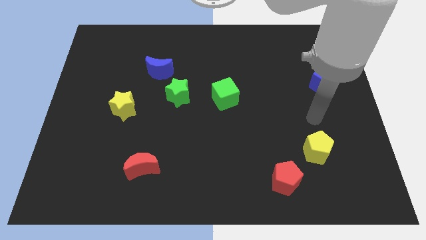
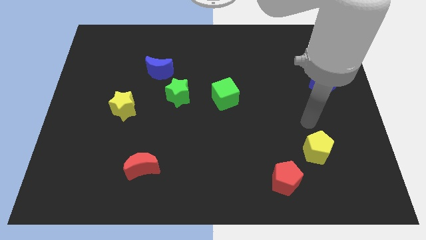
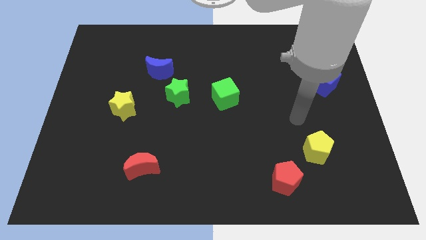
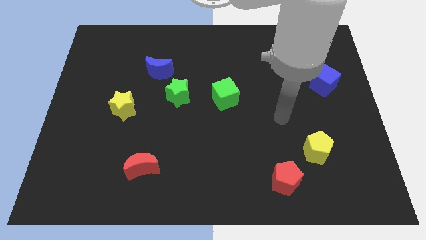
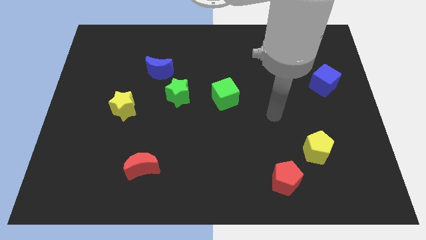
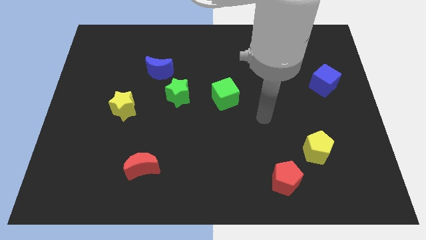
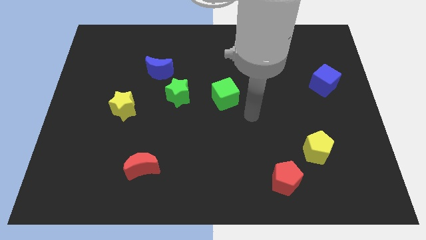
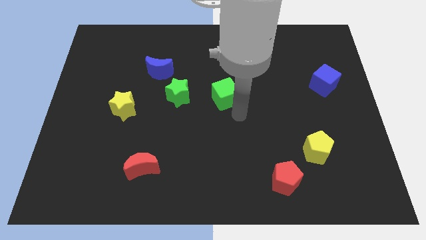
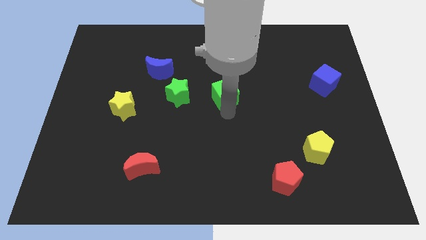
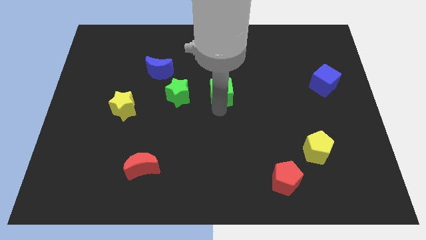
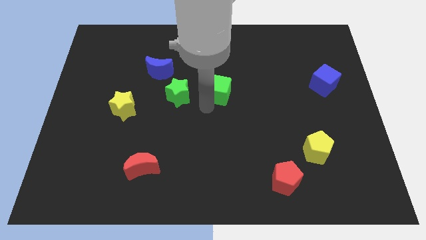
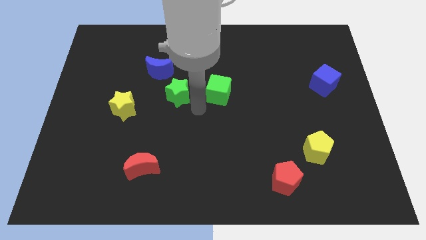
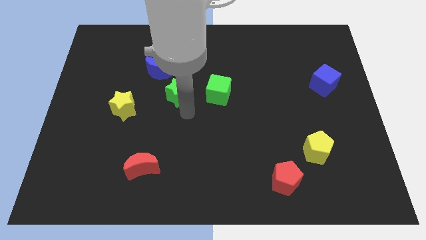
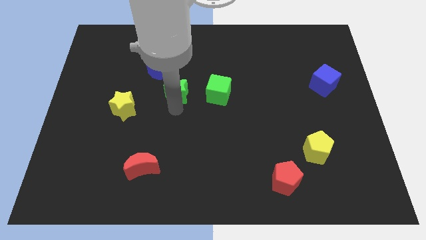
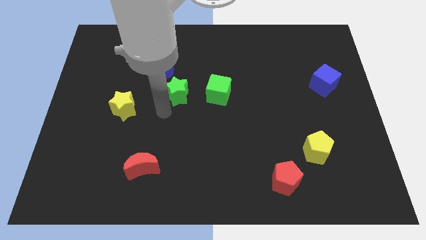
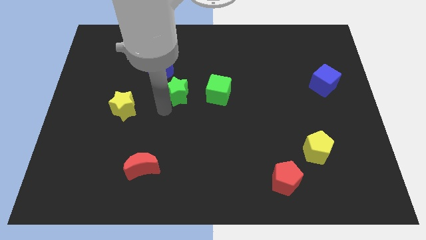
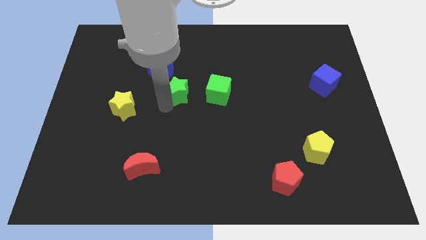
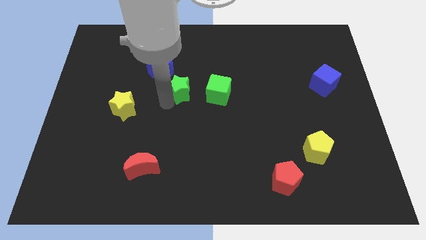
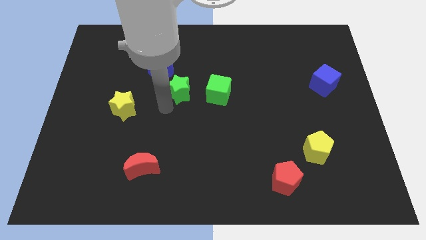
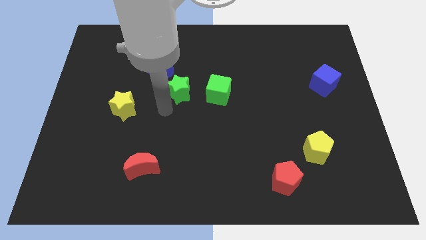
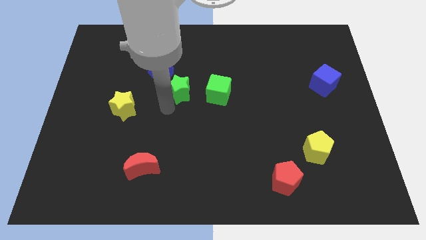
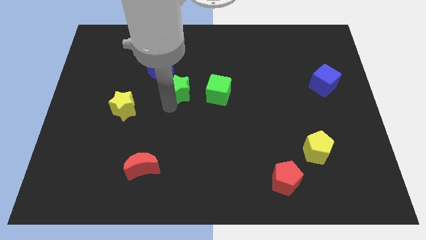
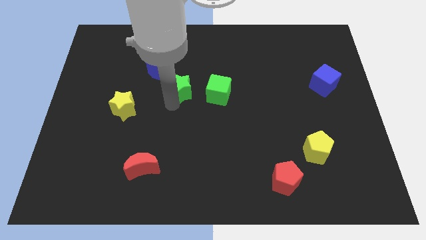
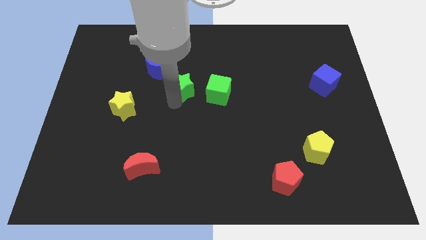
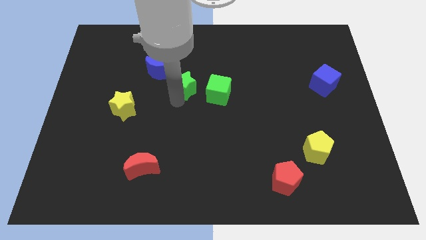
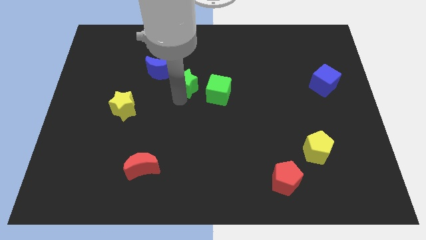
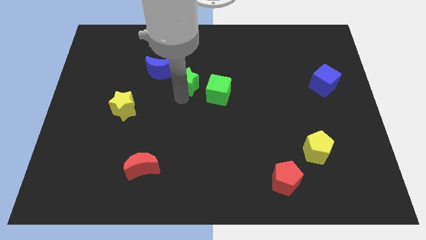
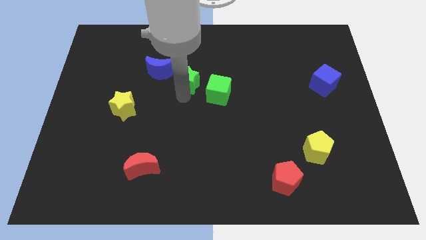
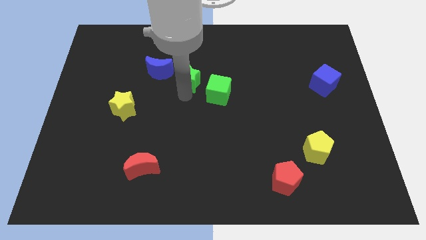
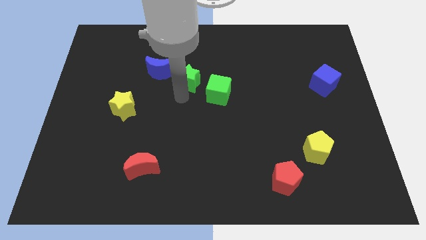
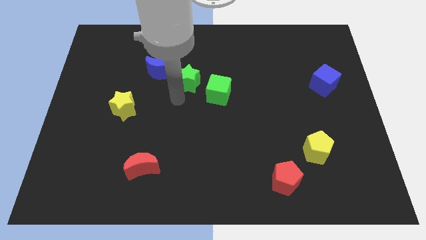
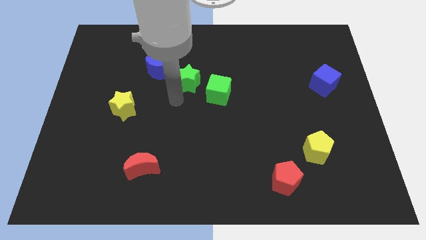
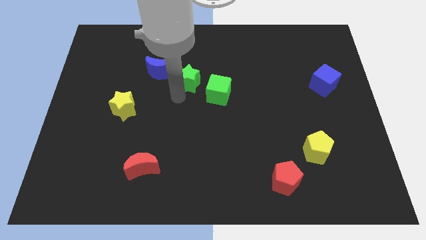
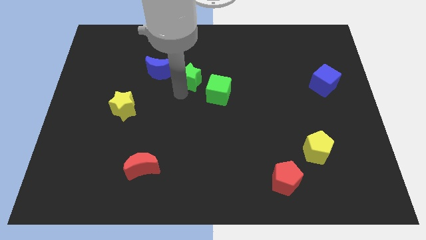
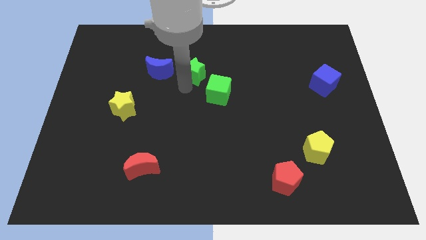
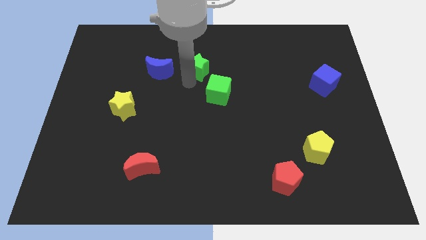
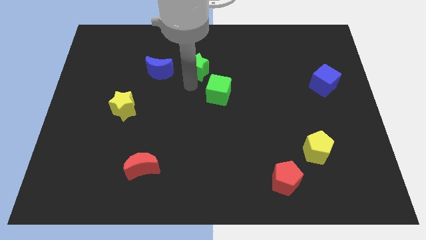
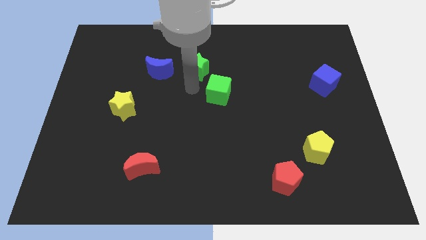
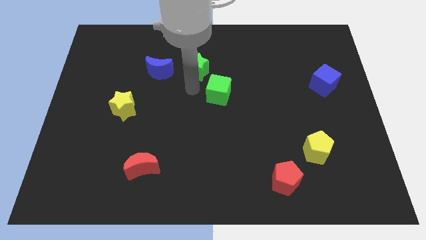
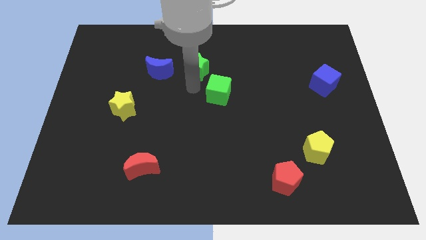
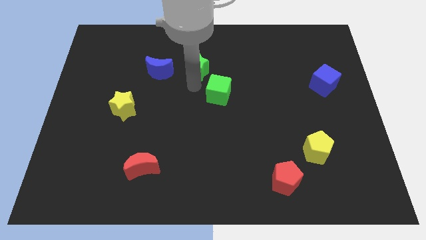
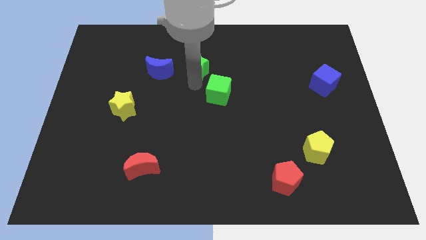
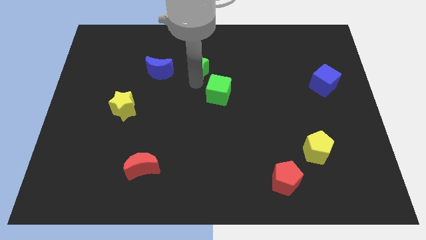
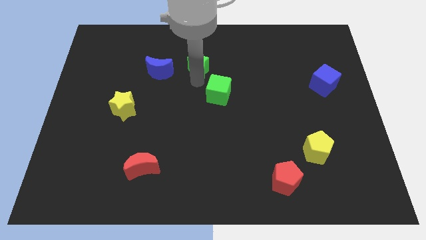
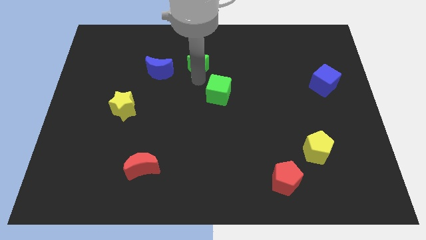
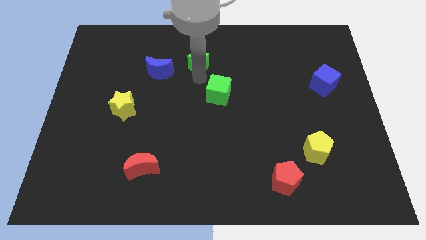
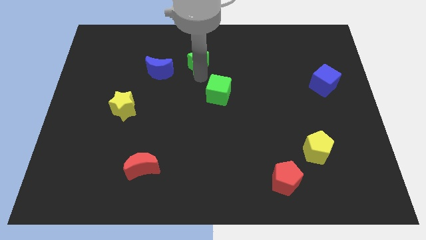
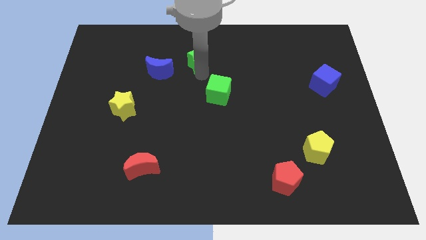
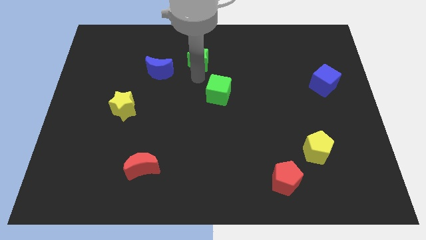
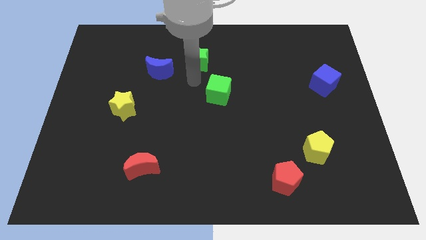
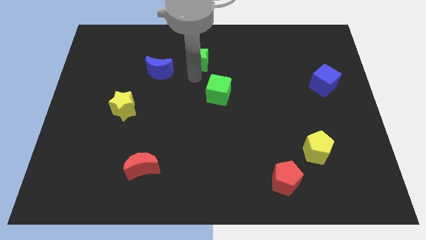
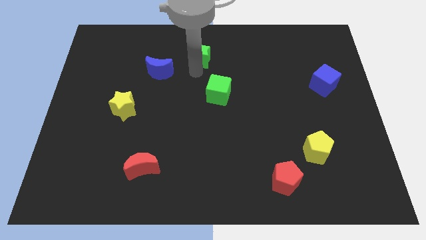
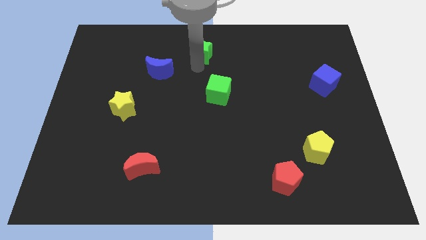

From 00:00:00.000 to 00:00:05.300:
move the green star to the top

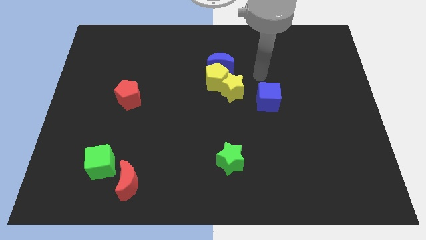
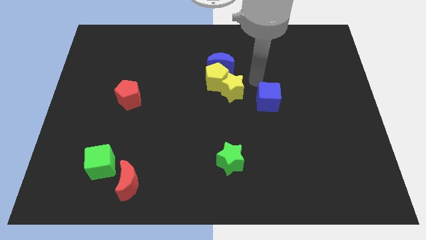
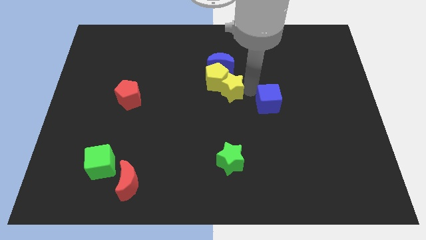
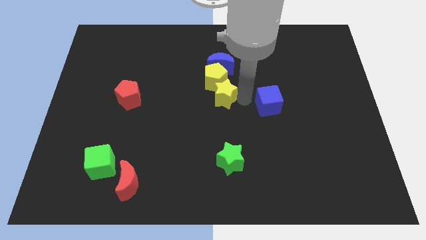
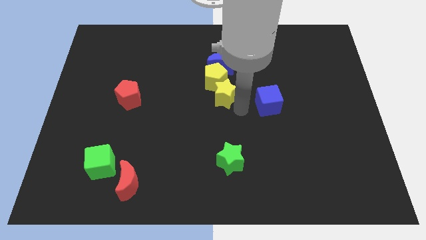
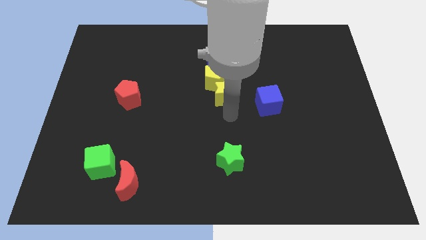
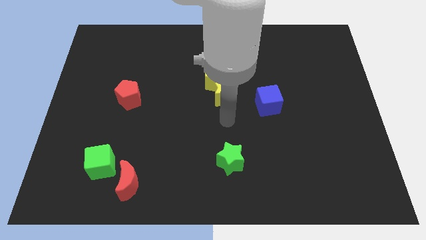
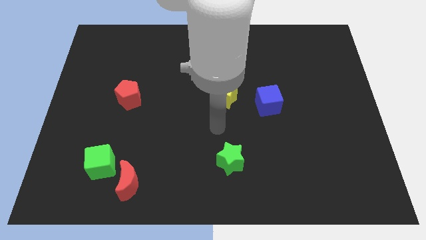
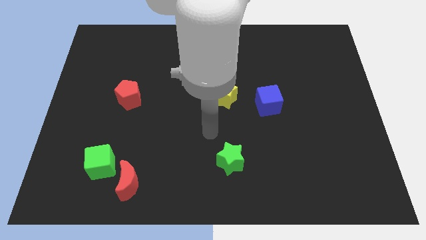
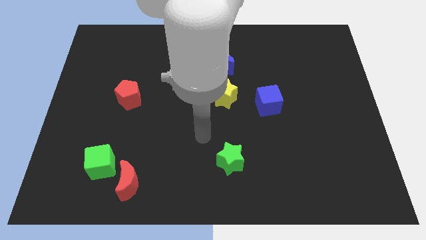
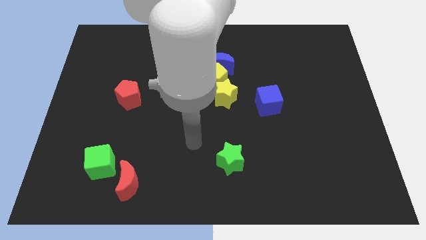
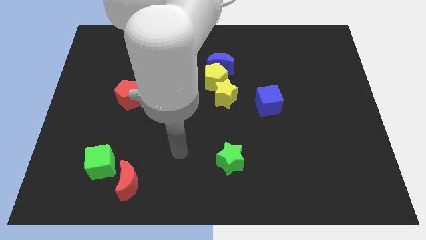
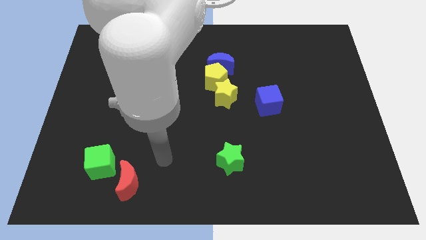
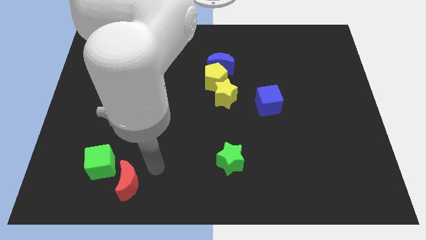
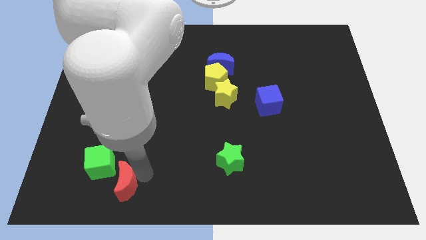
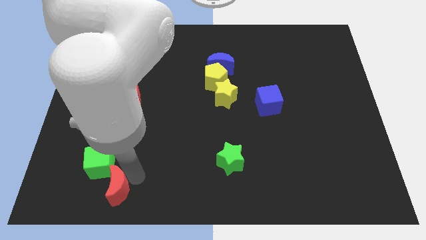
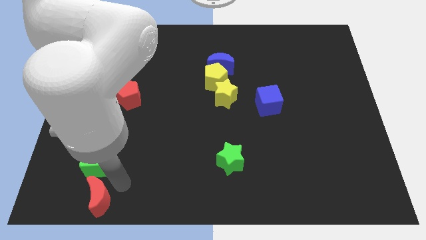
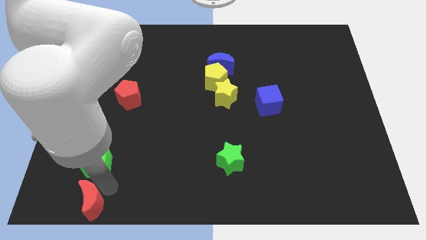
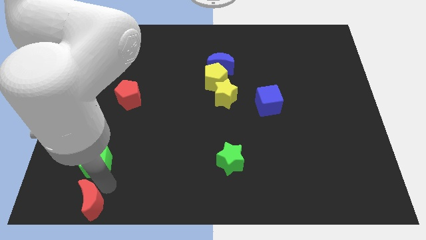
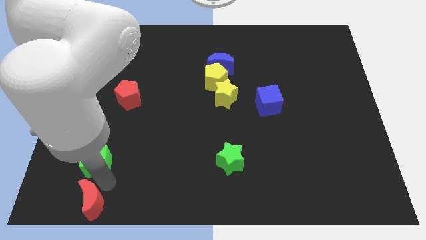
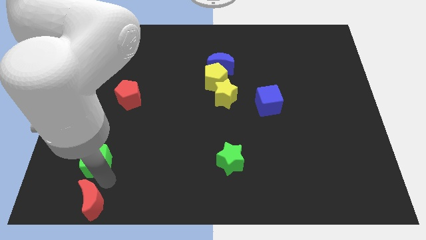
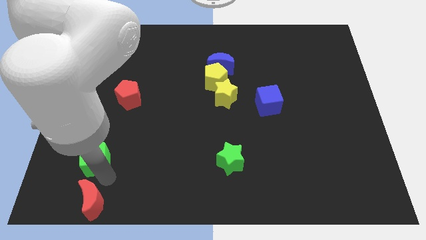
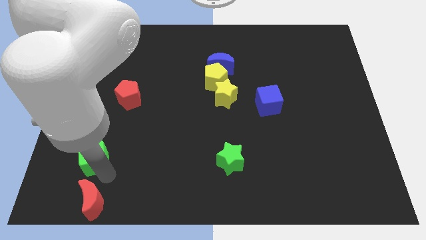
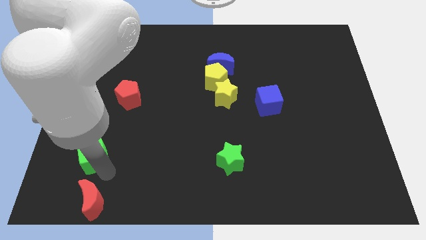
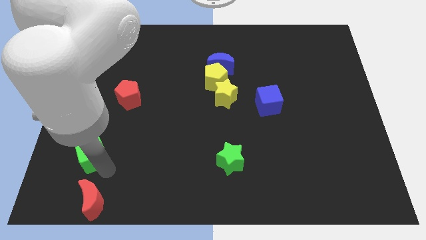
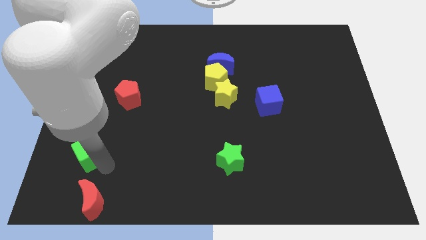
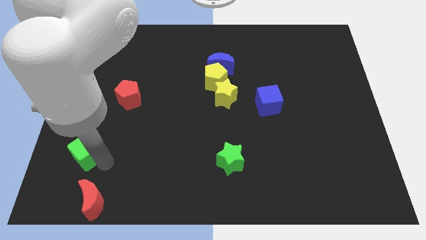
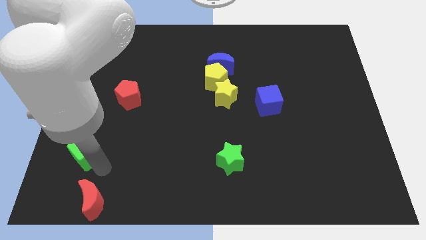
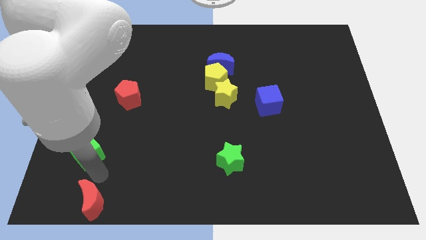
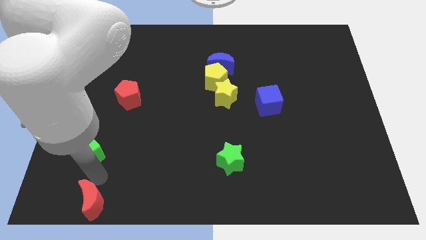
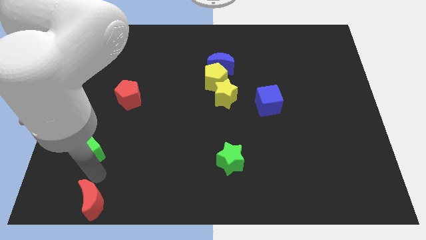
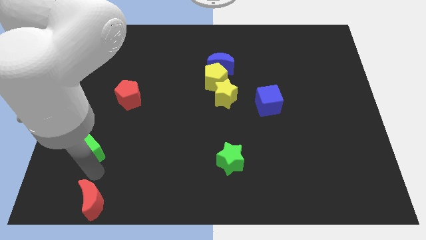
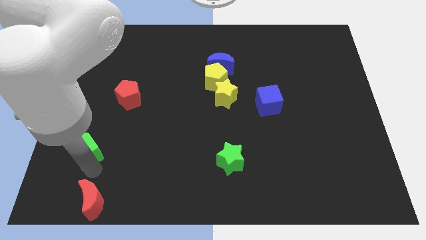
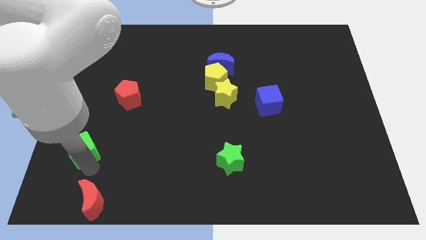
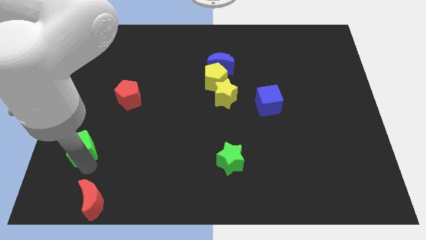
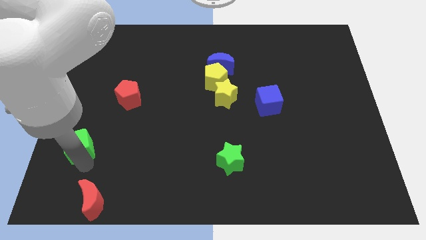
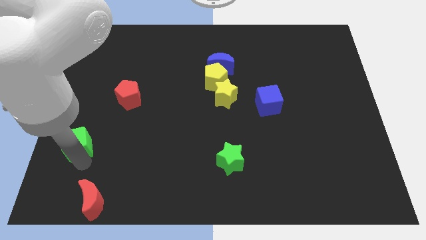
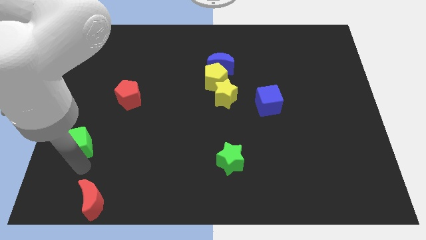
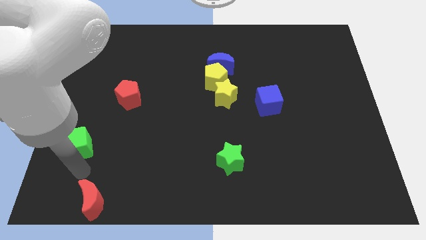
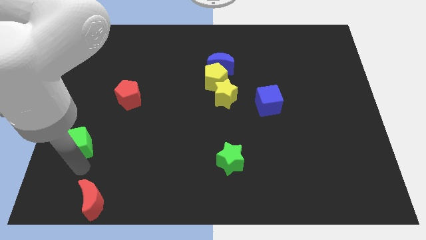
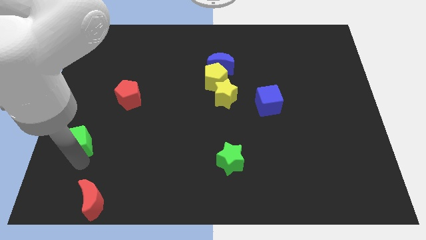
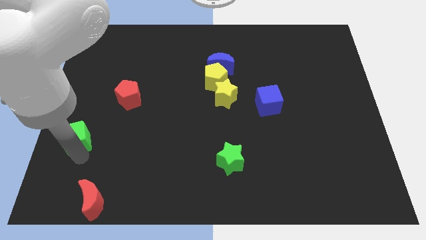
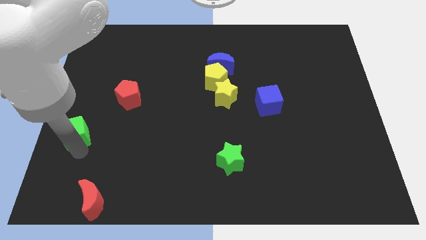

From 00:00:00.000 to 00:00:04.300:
move the green cube to the center left
